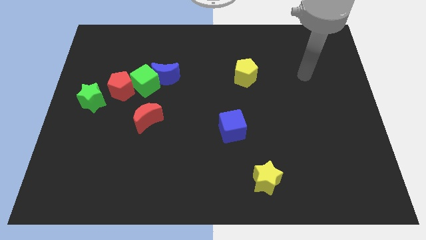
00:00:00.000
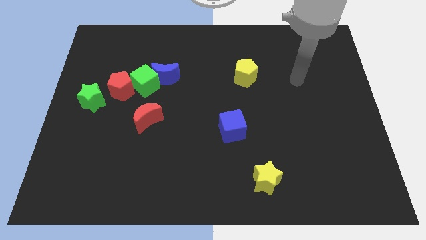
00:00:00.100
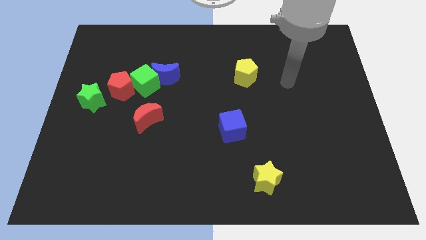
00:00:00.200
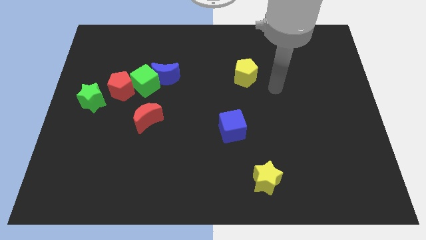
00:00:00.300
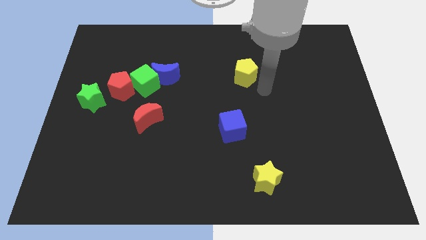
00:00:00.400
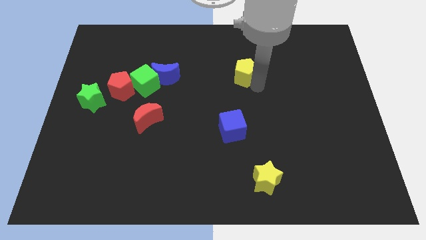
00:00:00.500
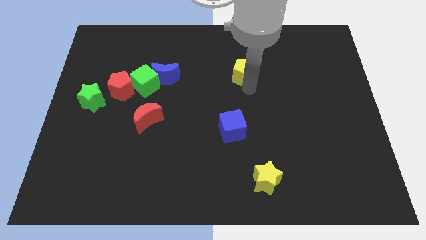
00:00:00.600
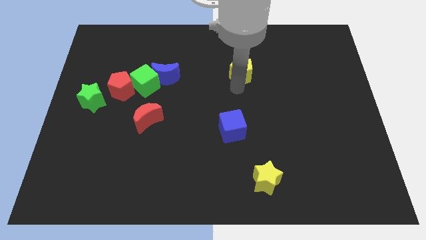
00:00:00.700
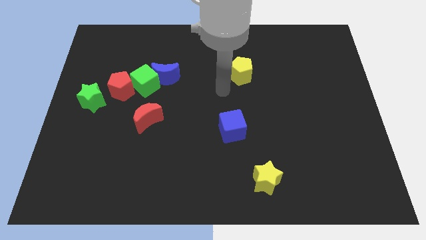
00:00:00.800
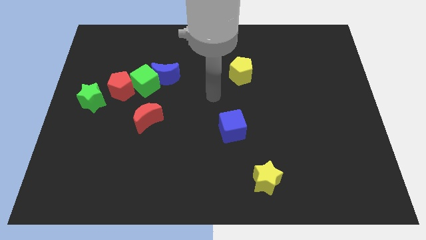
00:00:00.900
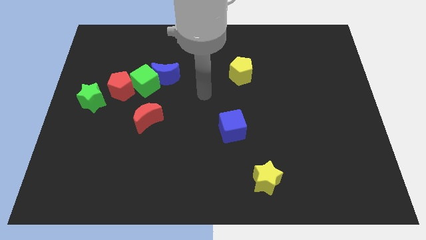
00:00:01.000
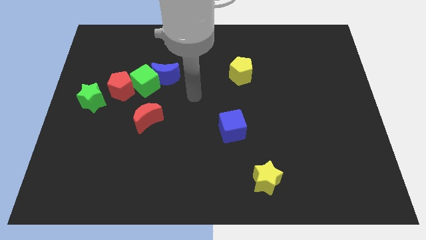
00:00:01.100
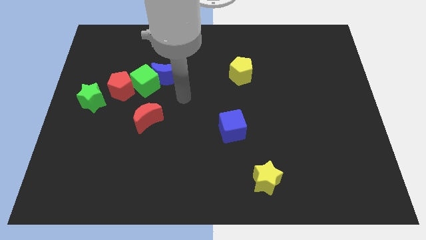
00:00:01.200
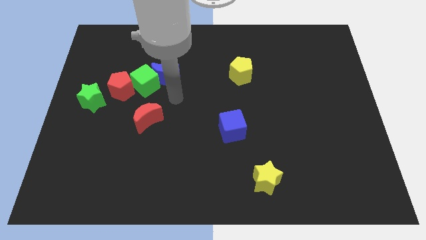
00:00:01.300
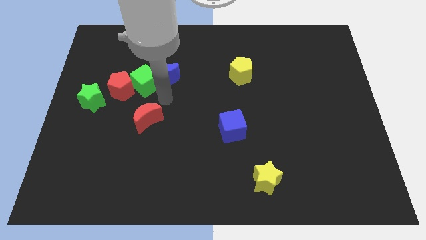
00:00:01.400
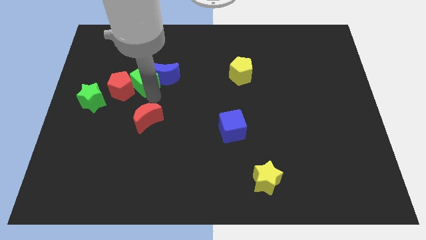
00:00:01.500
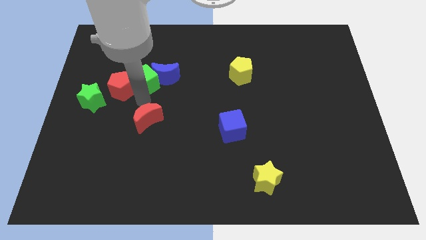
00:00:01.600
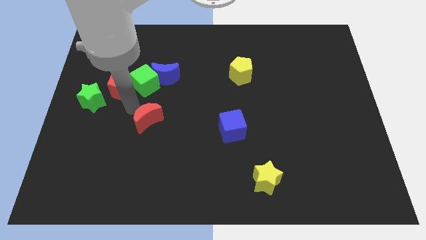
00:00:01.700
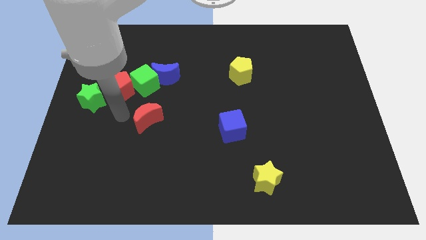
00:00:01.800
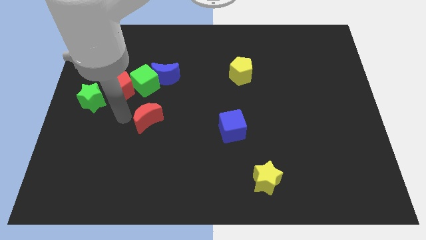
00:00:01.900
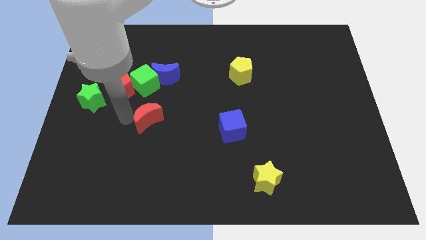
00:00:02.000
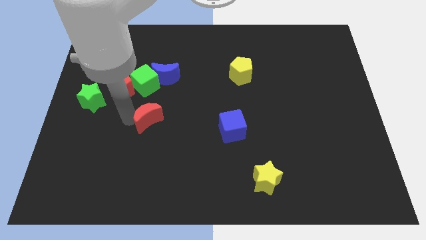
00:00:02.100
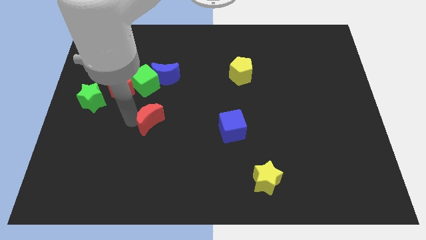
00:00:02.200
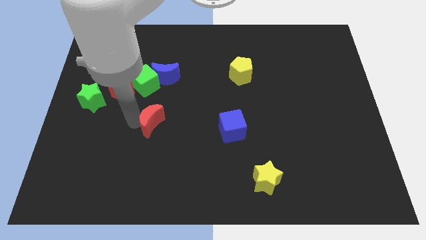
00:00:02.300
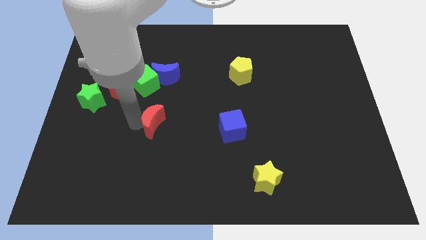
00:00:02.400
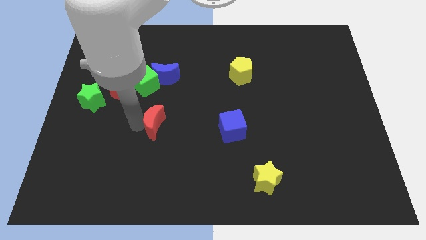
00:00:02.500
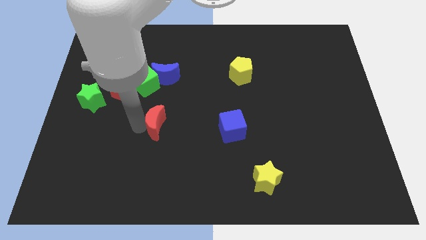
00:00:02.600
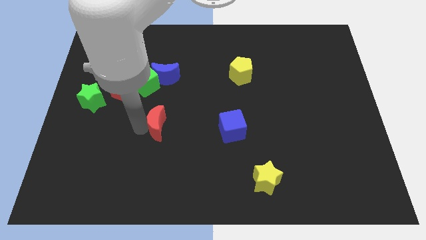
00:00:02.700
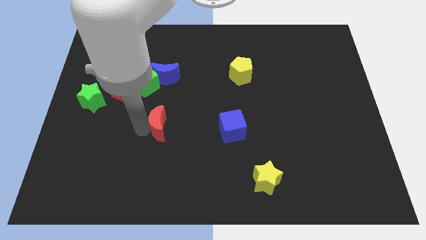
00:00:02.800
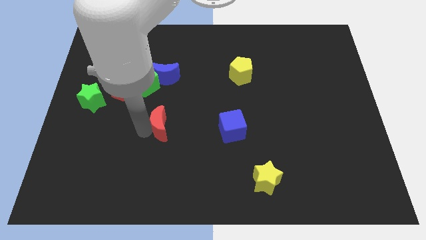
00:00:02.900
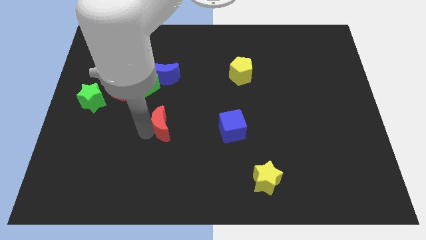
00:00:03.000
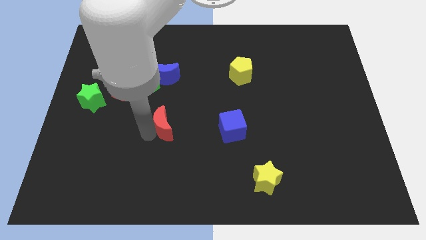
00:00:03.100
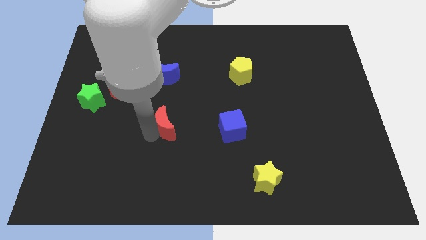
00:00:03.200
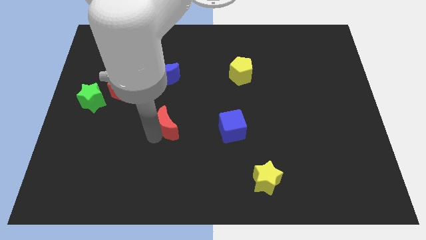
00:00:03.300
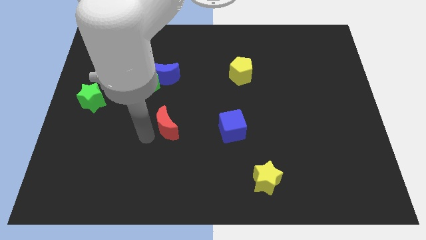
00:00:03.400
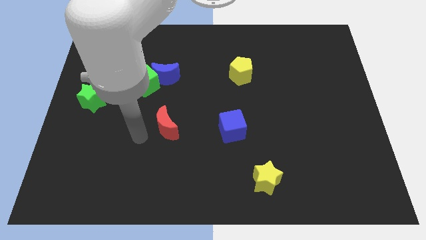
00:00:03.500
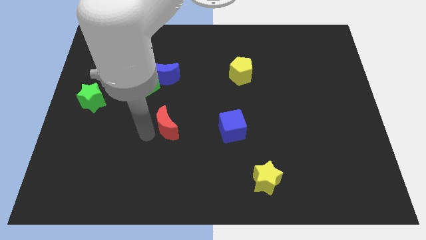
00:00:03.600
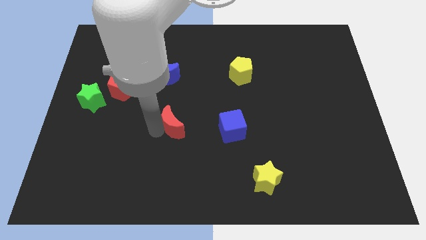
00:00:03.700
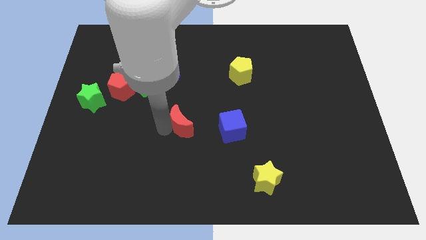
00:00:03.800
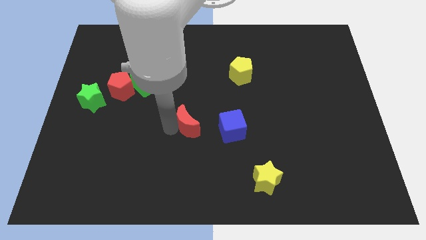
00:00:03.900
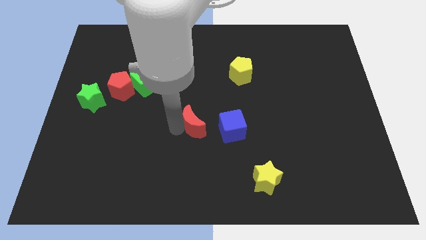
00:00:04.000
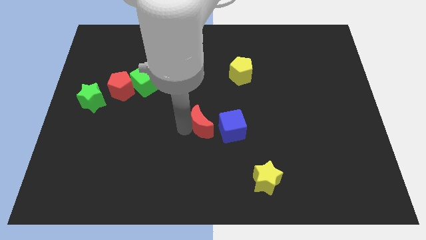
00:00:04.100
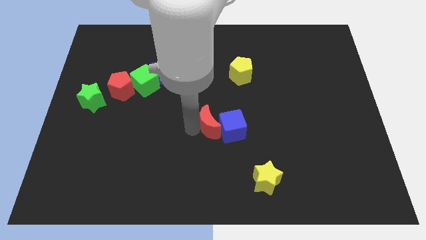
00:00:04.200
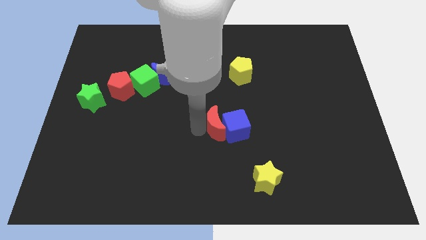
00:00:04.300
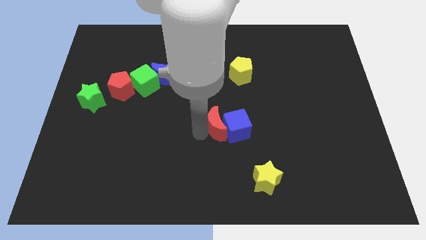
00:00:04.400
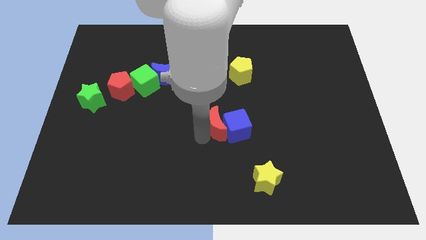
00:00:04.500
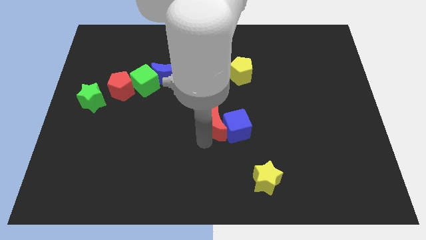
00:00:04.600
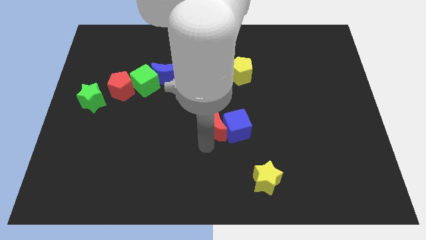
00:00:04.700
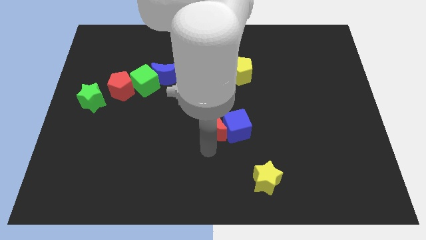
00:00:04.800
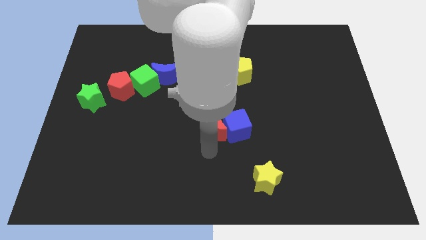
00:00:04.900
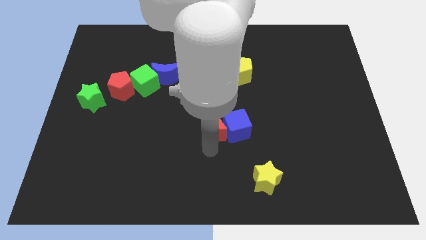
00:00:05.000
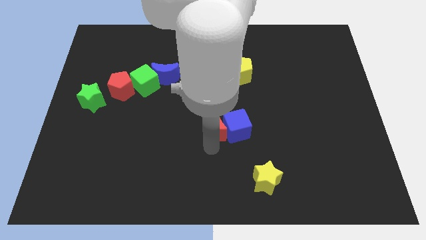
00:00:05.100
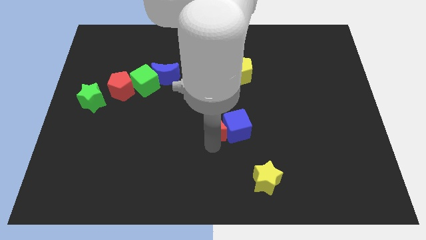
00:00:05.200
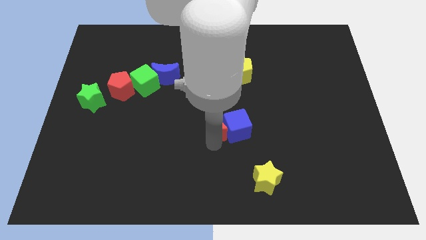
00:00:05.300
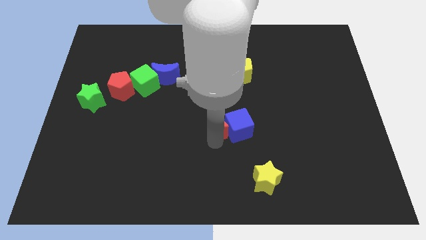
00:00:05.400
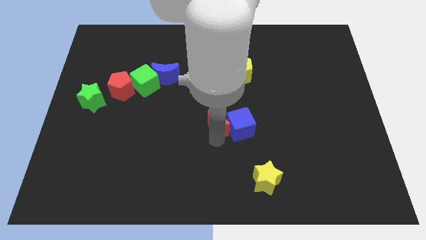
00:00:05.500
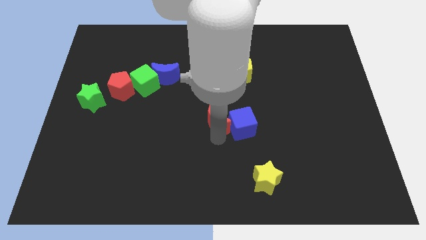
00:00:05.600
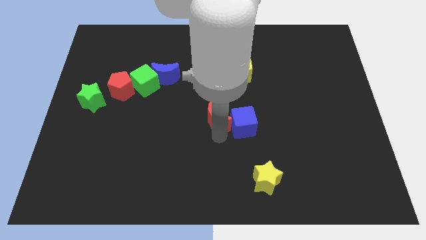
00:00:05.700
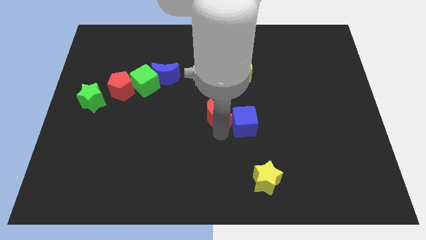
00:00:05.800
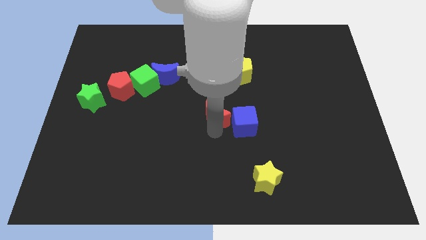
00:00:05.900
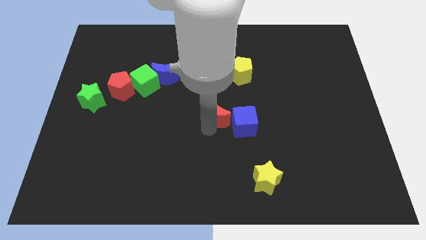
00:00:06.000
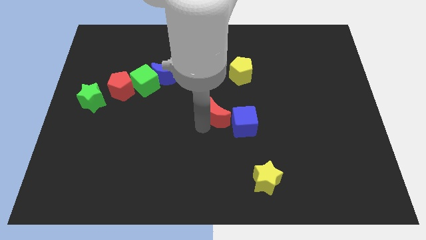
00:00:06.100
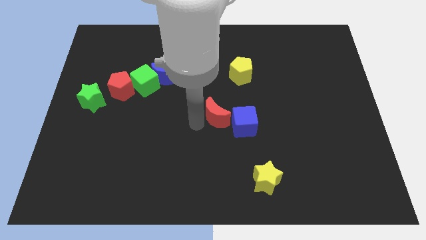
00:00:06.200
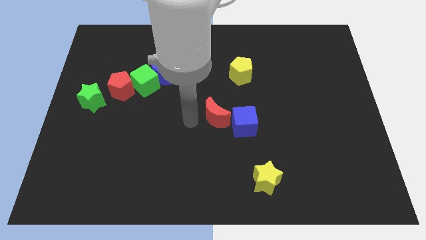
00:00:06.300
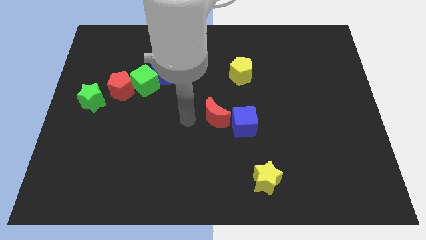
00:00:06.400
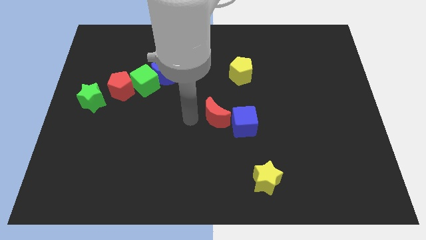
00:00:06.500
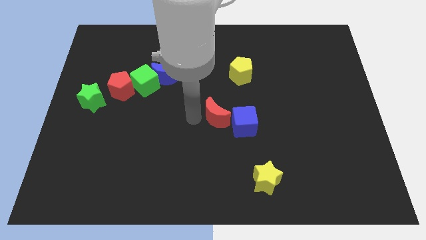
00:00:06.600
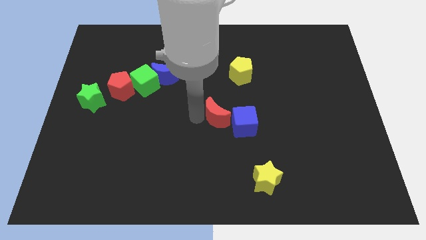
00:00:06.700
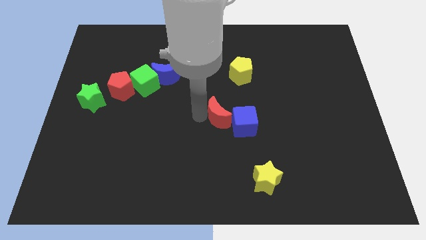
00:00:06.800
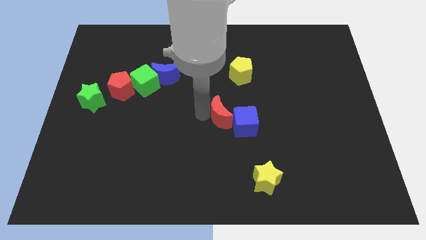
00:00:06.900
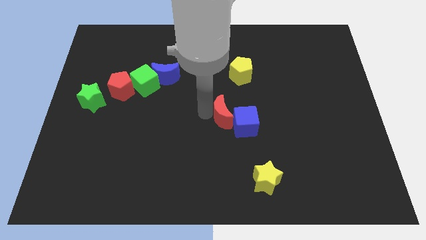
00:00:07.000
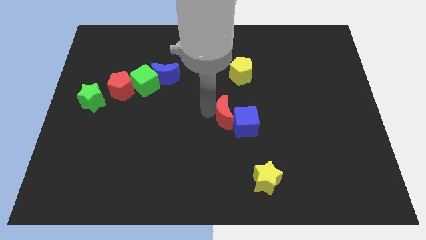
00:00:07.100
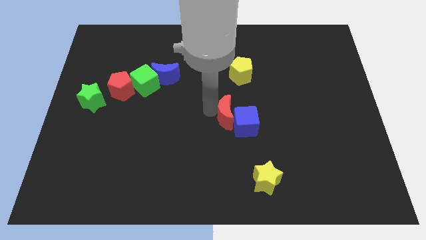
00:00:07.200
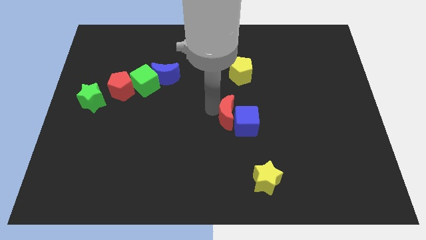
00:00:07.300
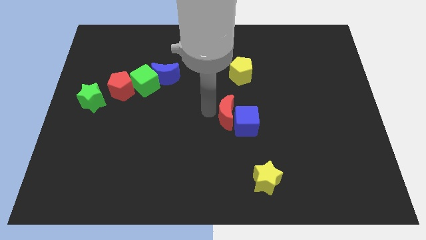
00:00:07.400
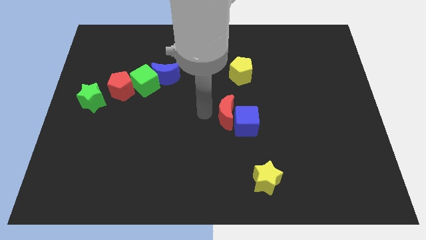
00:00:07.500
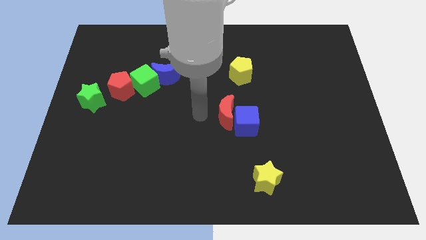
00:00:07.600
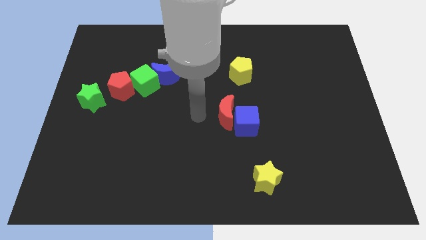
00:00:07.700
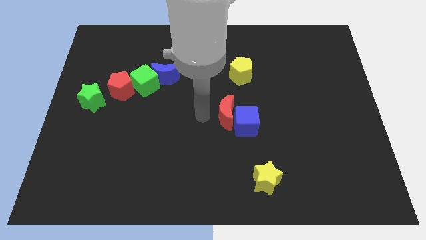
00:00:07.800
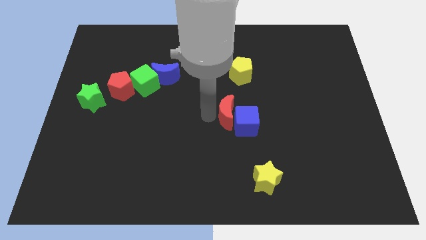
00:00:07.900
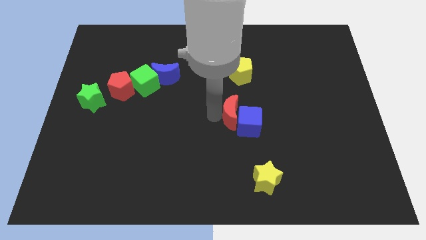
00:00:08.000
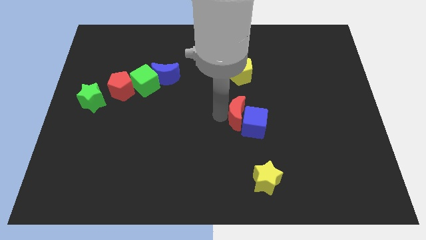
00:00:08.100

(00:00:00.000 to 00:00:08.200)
move the red moon to the right
